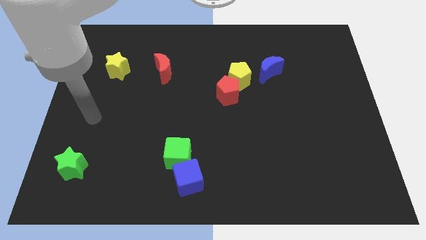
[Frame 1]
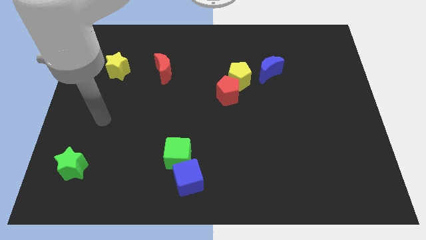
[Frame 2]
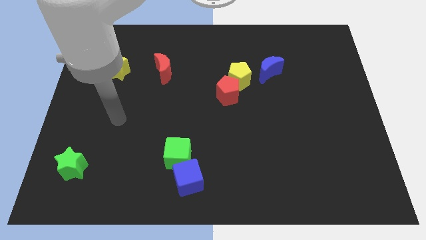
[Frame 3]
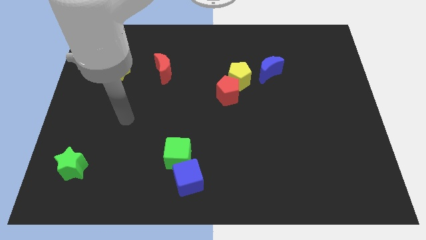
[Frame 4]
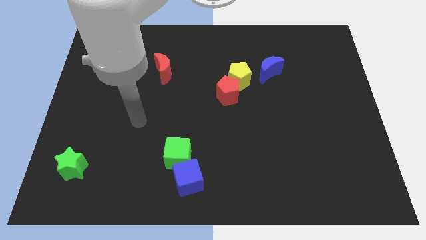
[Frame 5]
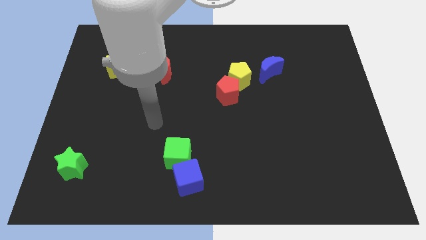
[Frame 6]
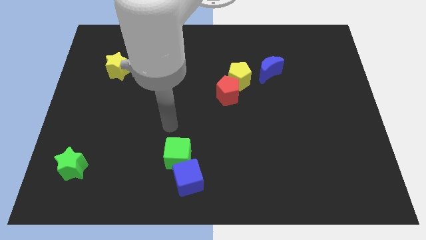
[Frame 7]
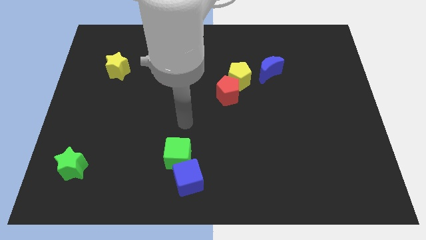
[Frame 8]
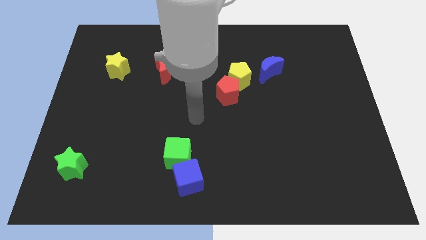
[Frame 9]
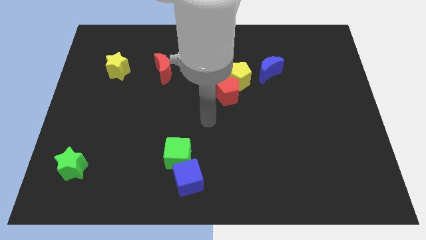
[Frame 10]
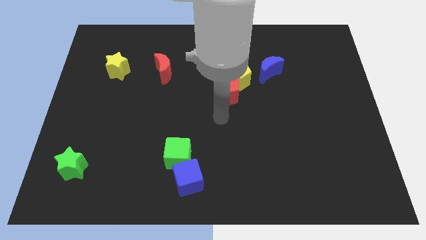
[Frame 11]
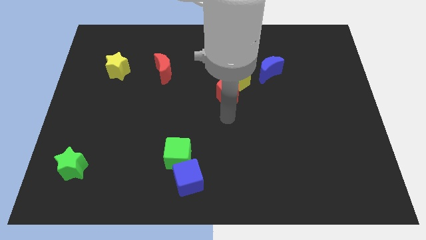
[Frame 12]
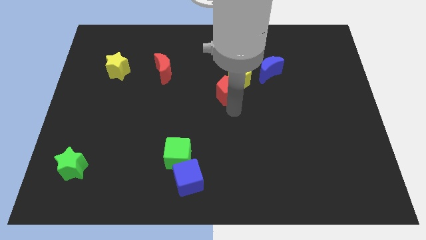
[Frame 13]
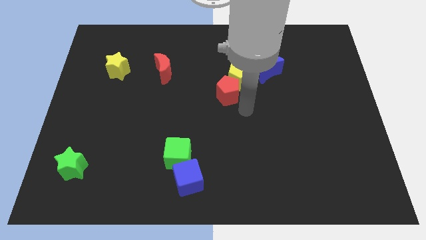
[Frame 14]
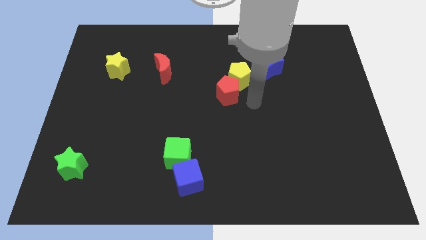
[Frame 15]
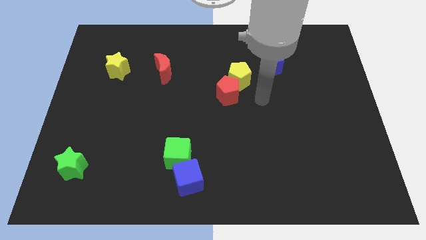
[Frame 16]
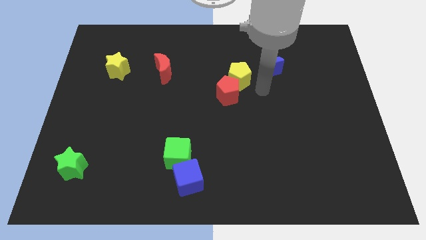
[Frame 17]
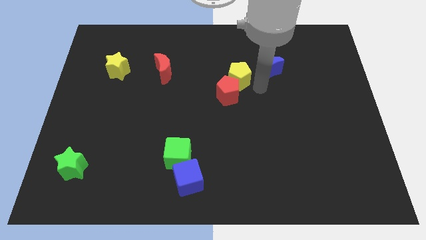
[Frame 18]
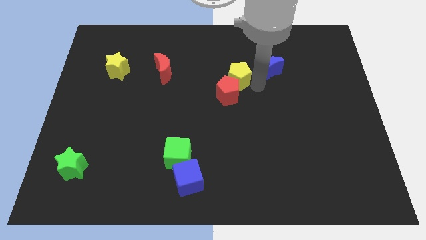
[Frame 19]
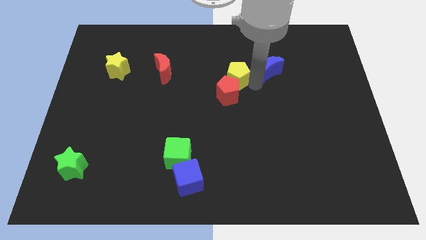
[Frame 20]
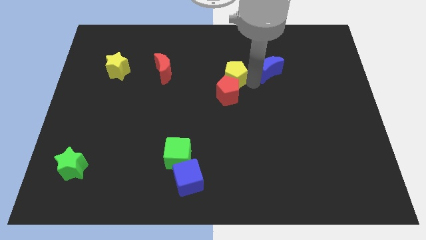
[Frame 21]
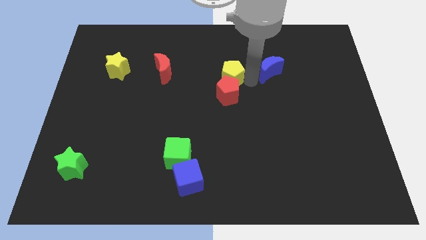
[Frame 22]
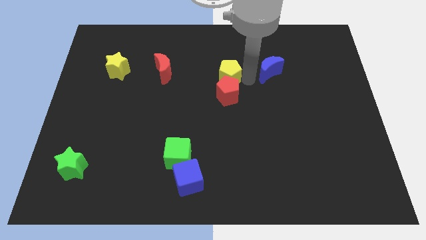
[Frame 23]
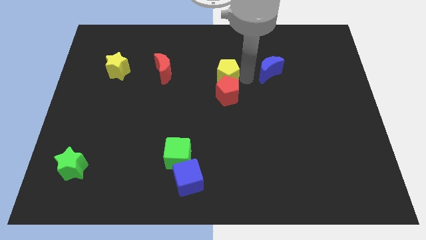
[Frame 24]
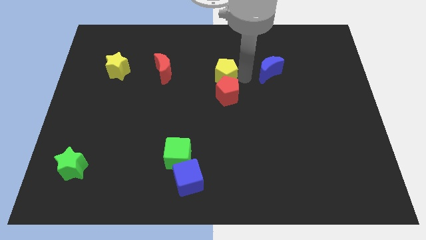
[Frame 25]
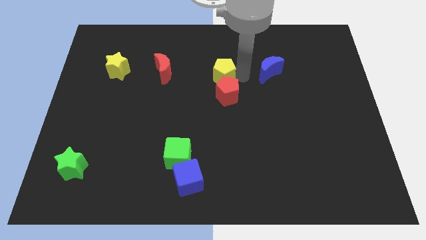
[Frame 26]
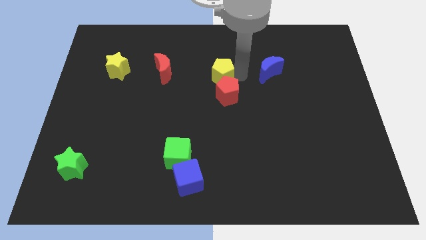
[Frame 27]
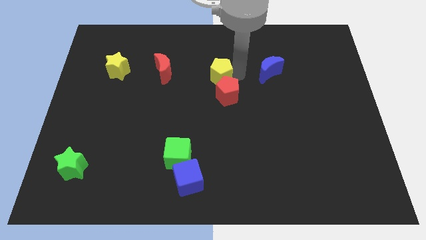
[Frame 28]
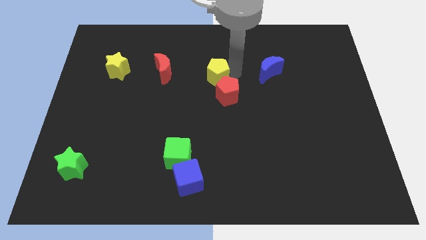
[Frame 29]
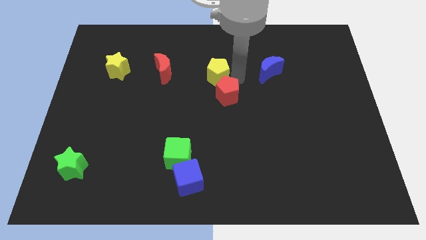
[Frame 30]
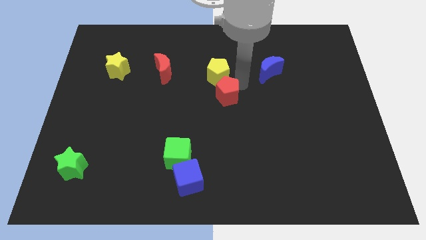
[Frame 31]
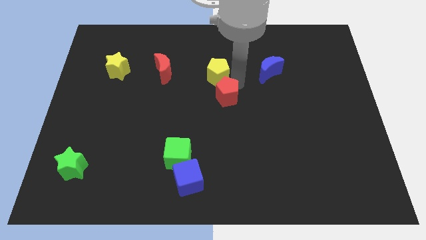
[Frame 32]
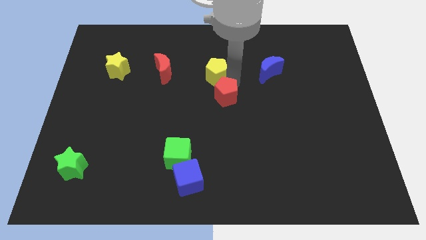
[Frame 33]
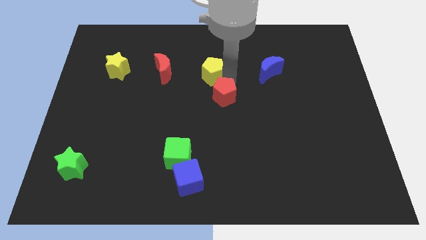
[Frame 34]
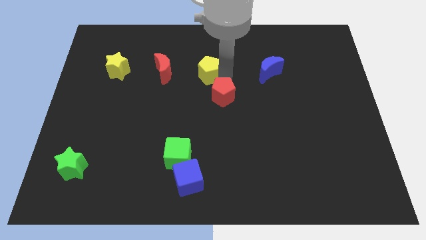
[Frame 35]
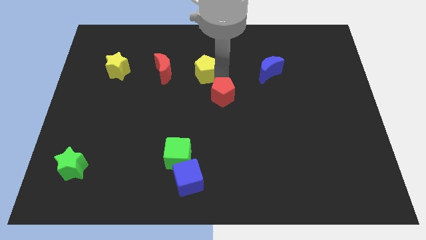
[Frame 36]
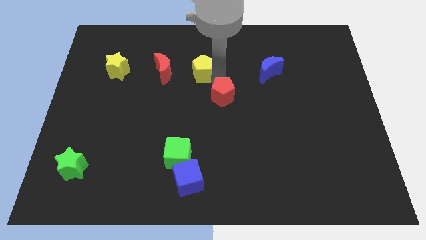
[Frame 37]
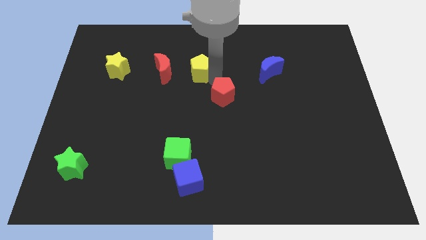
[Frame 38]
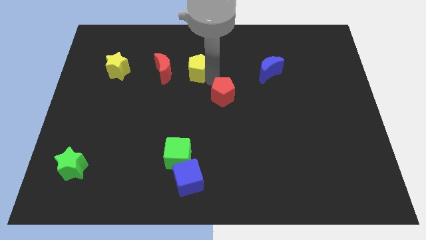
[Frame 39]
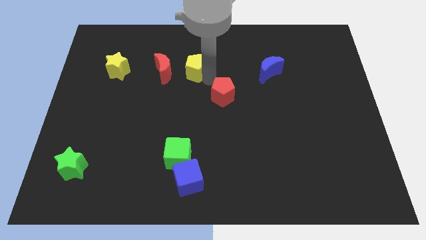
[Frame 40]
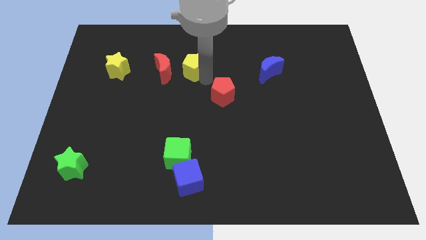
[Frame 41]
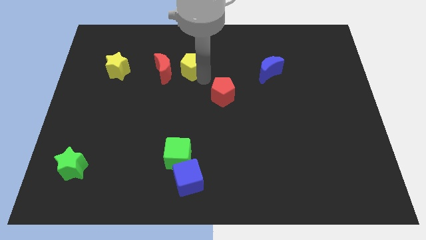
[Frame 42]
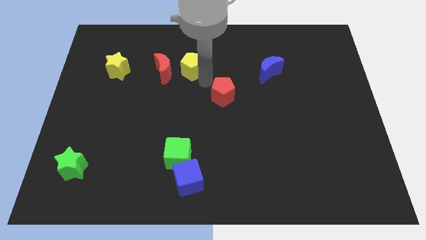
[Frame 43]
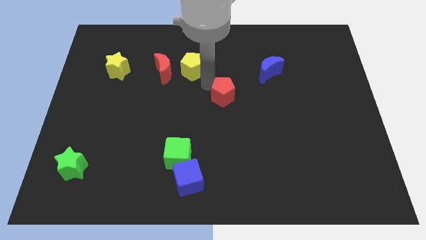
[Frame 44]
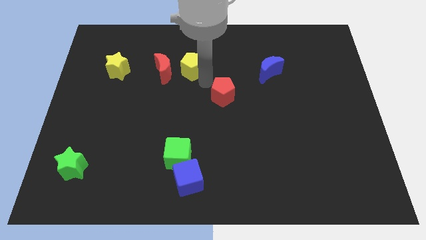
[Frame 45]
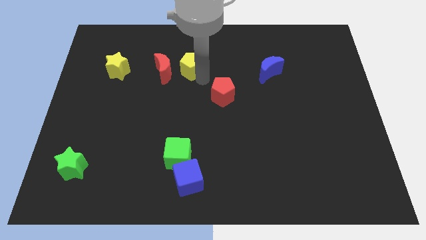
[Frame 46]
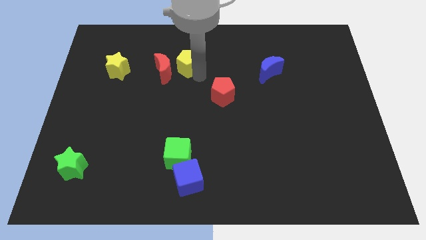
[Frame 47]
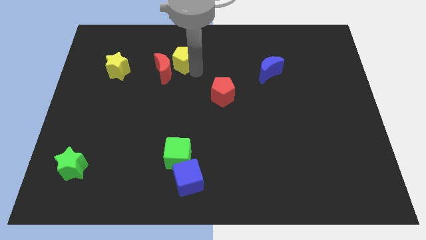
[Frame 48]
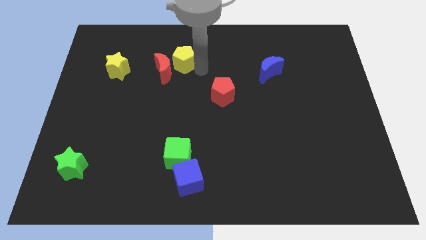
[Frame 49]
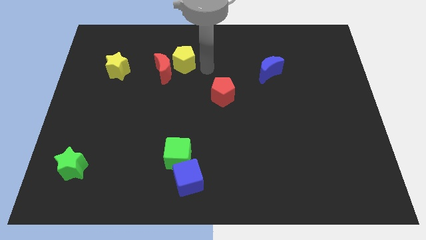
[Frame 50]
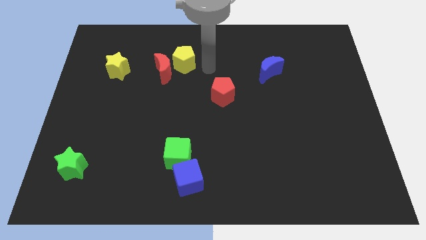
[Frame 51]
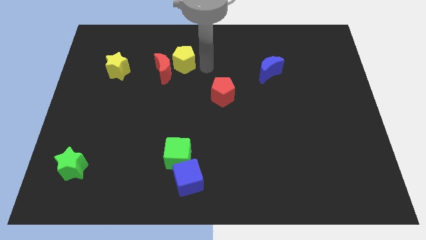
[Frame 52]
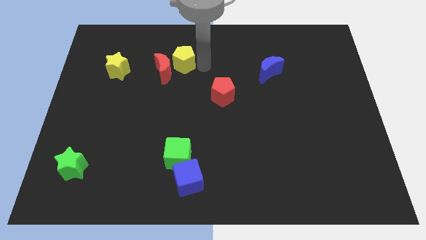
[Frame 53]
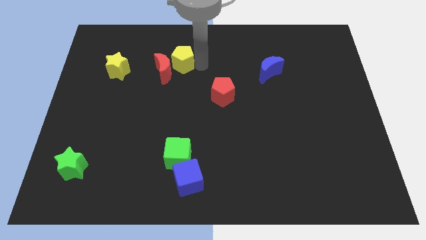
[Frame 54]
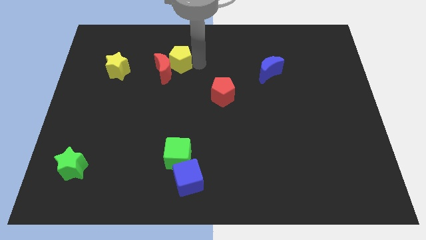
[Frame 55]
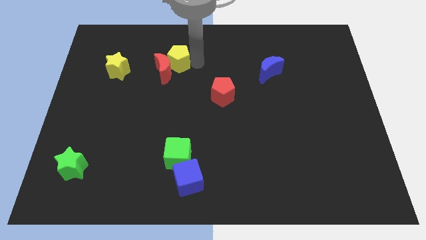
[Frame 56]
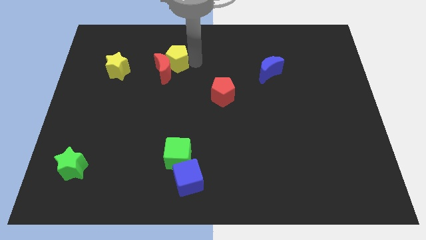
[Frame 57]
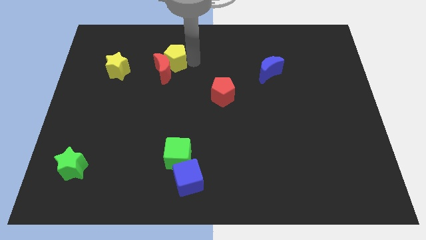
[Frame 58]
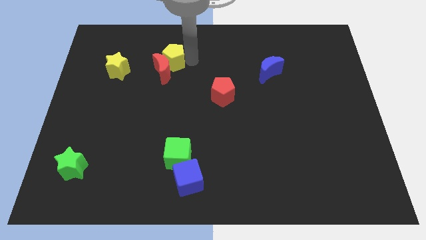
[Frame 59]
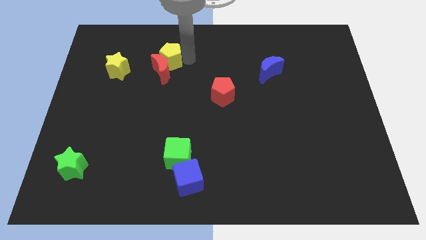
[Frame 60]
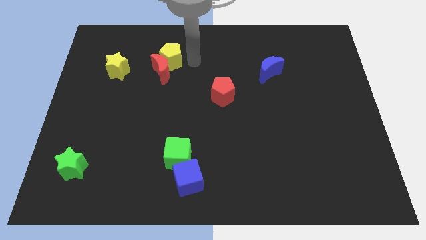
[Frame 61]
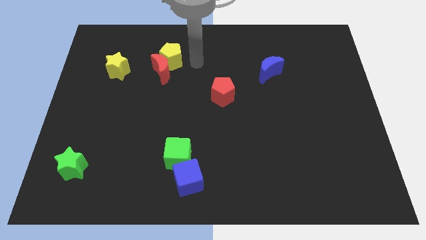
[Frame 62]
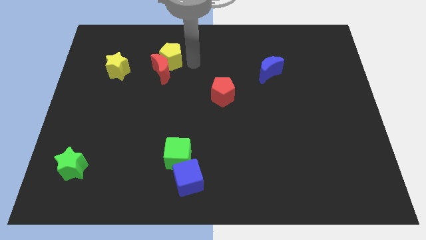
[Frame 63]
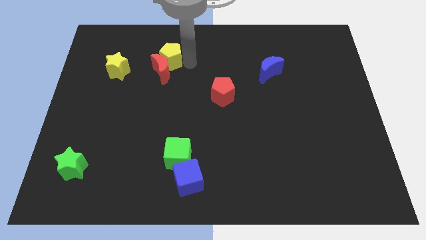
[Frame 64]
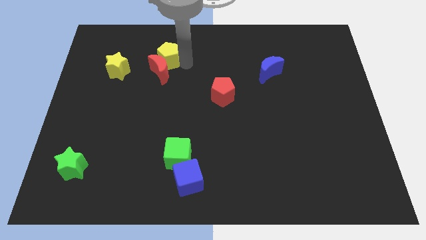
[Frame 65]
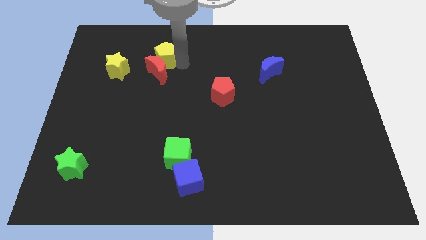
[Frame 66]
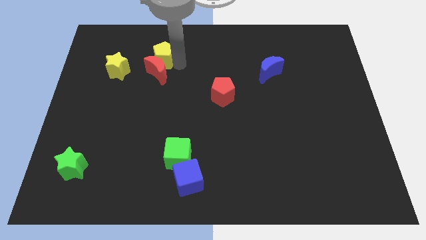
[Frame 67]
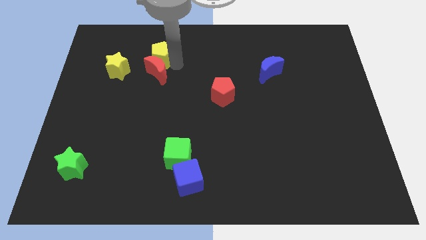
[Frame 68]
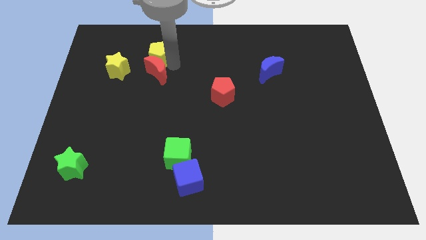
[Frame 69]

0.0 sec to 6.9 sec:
put the yellow pentagon to the top right side of the yellow star
